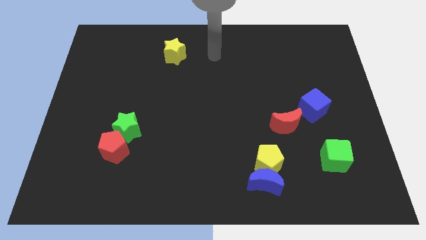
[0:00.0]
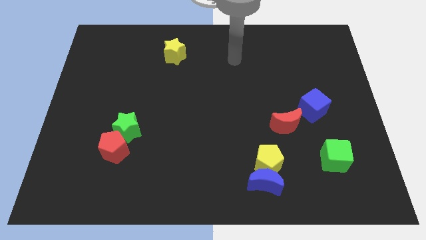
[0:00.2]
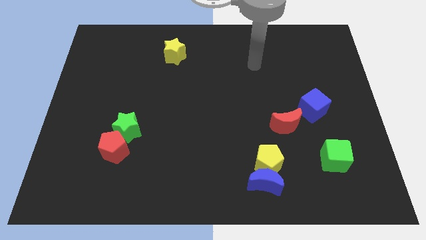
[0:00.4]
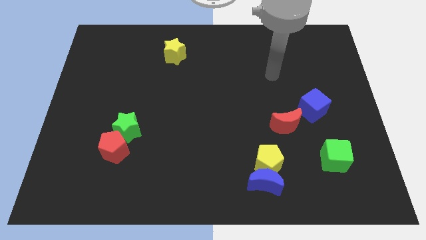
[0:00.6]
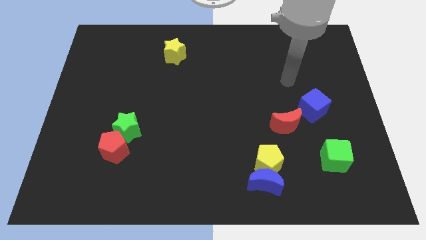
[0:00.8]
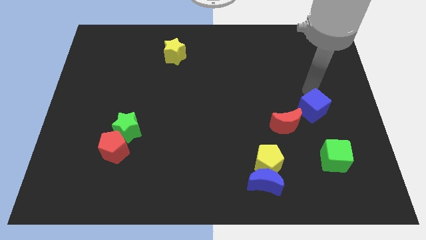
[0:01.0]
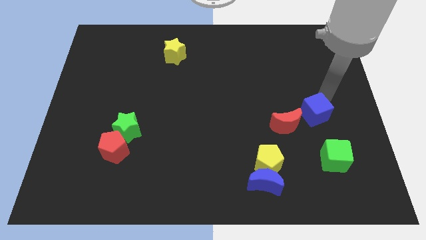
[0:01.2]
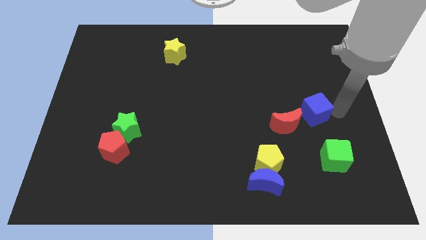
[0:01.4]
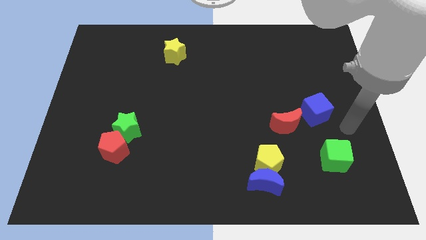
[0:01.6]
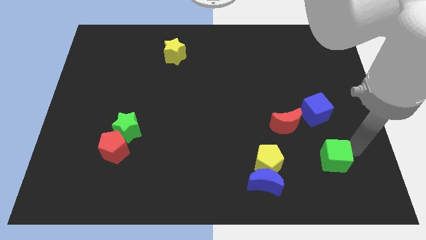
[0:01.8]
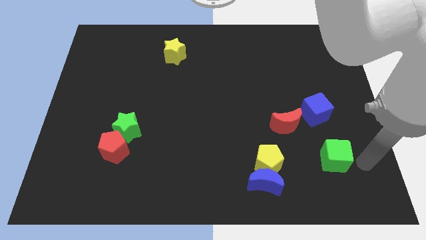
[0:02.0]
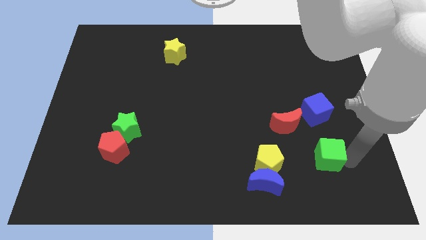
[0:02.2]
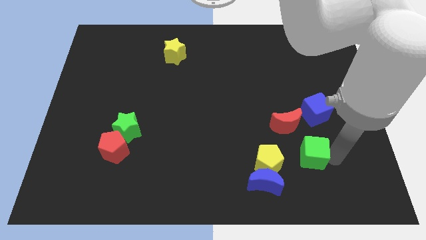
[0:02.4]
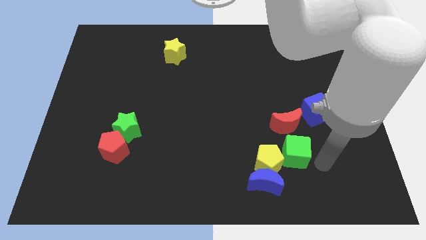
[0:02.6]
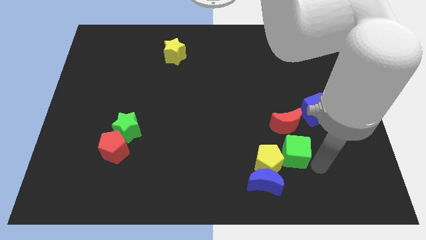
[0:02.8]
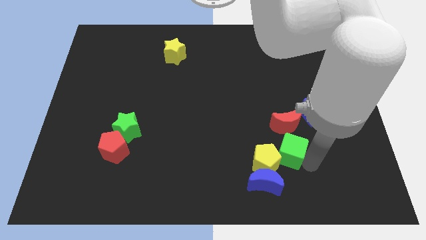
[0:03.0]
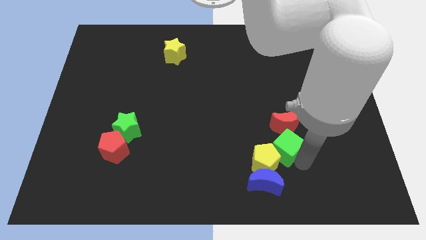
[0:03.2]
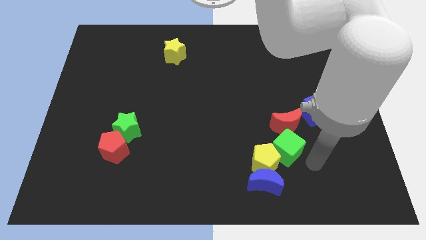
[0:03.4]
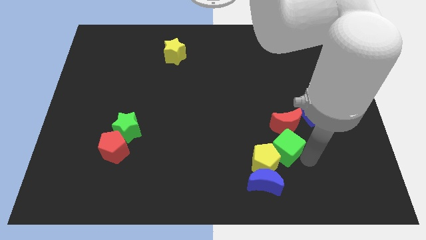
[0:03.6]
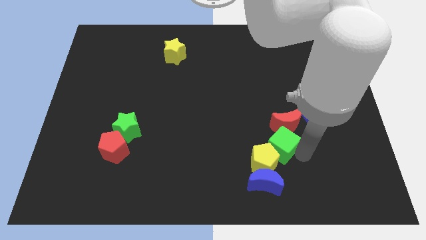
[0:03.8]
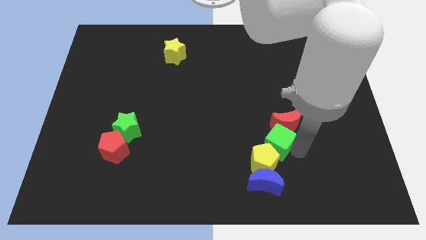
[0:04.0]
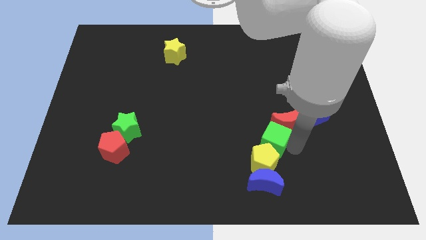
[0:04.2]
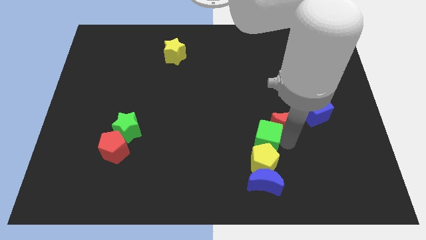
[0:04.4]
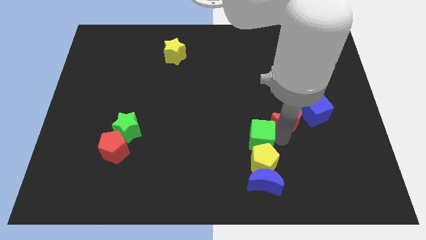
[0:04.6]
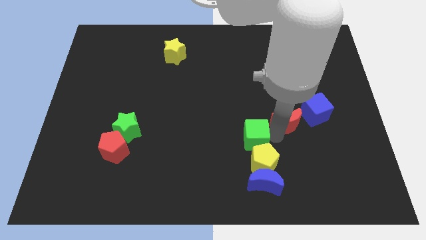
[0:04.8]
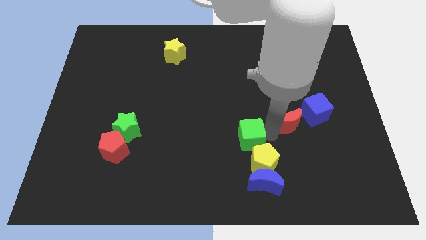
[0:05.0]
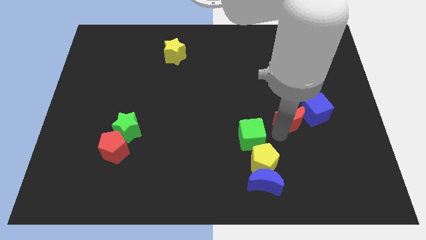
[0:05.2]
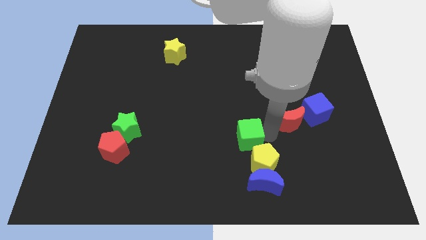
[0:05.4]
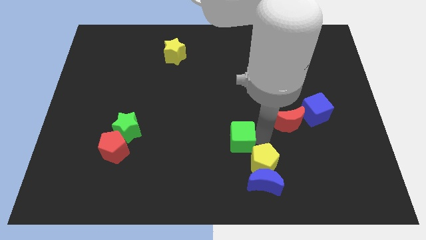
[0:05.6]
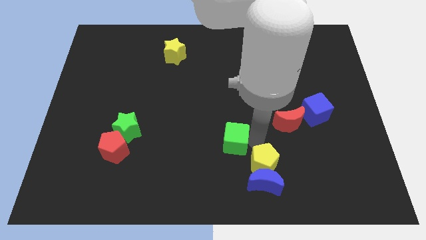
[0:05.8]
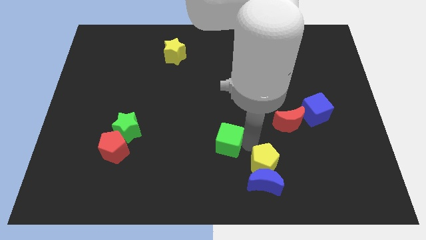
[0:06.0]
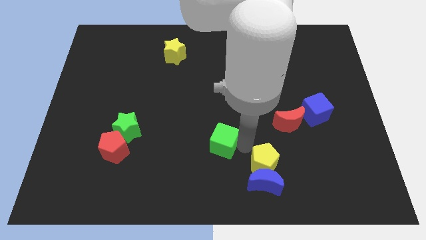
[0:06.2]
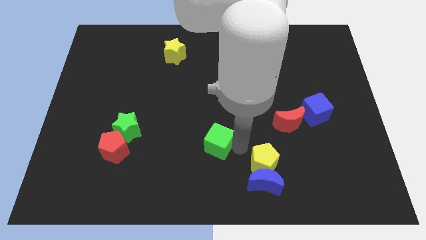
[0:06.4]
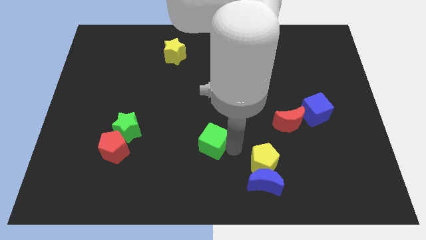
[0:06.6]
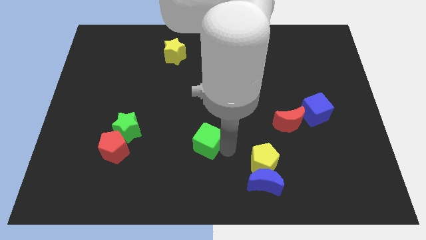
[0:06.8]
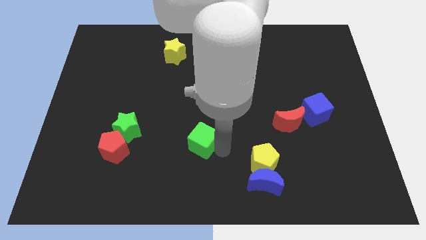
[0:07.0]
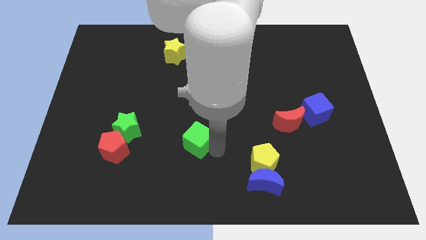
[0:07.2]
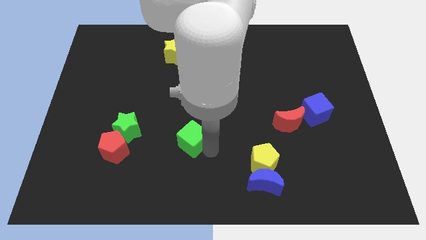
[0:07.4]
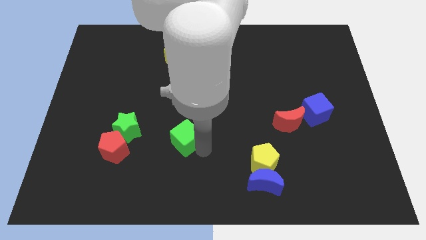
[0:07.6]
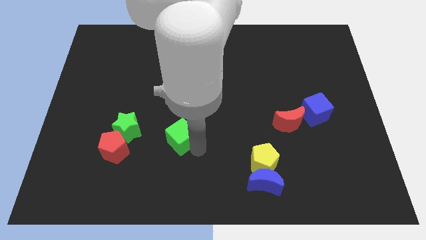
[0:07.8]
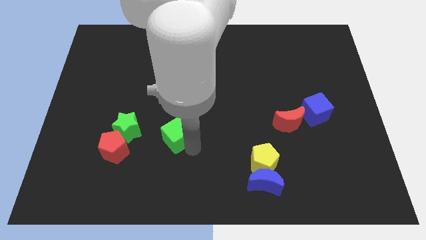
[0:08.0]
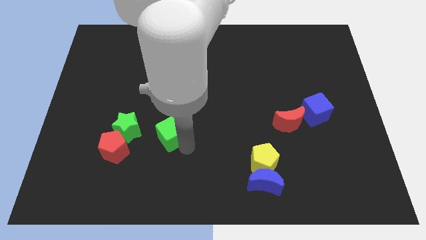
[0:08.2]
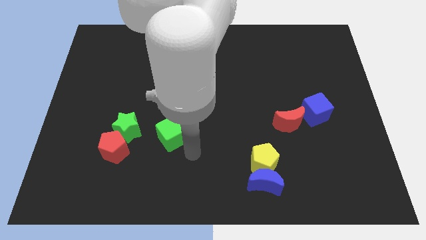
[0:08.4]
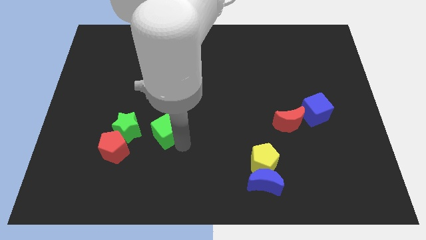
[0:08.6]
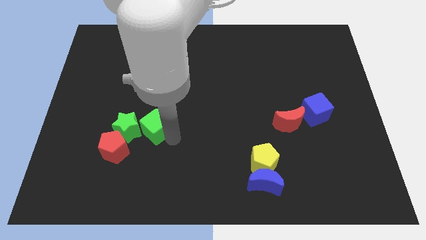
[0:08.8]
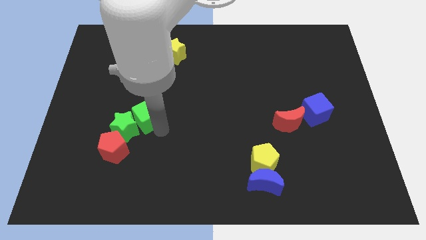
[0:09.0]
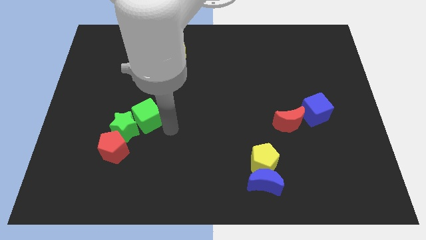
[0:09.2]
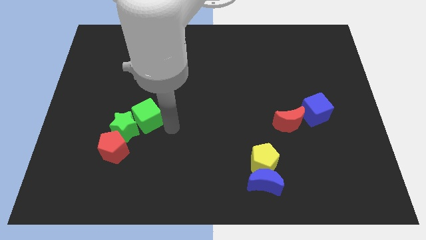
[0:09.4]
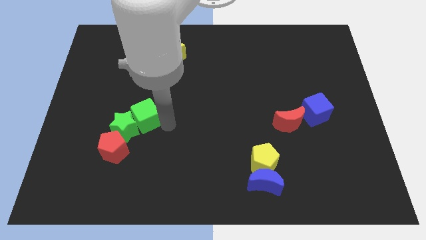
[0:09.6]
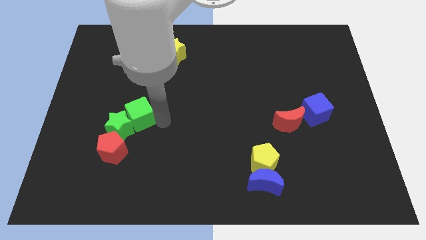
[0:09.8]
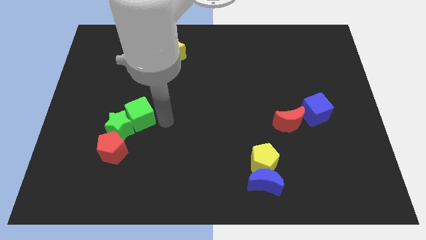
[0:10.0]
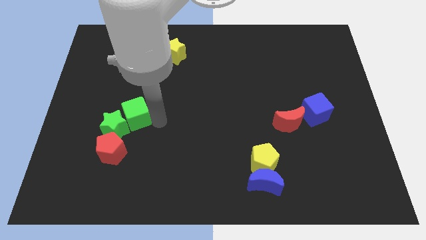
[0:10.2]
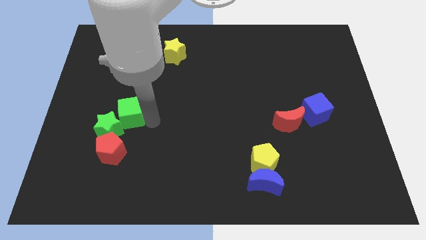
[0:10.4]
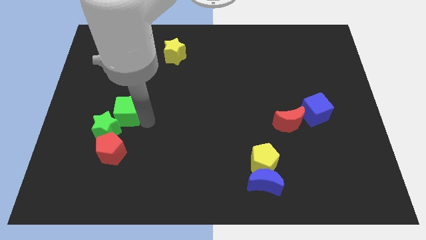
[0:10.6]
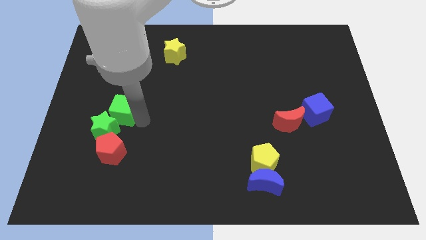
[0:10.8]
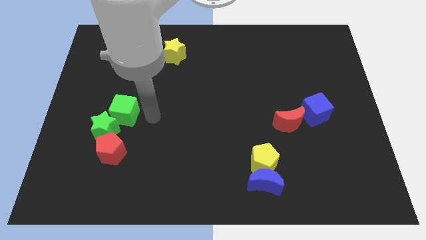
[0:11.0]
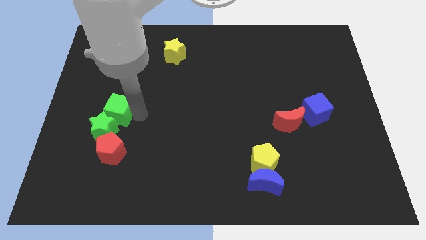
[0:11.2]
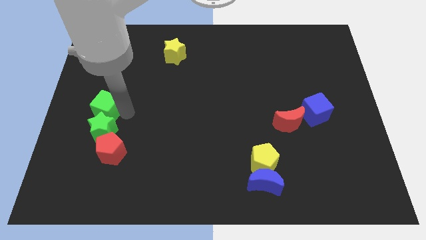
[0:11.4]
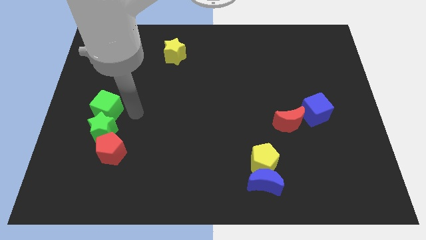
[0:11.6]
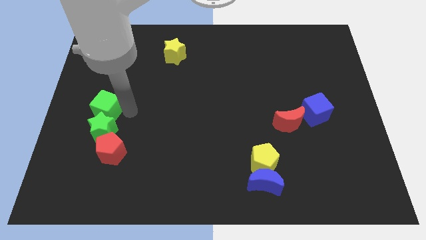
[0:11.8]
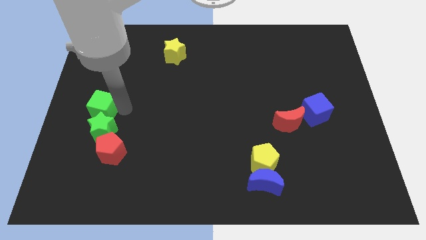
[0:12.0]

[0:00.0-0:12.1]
put the green cube to the left side of the board
